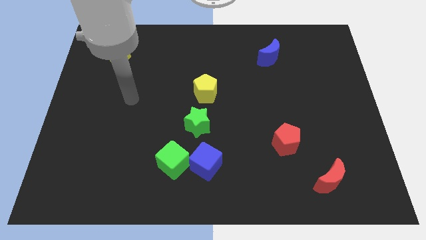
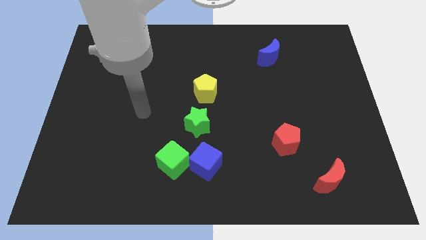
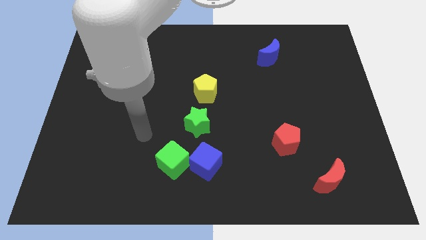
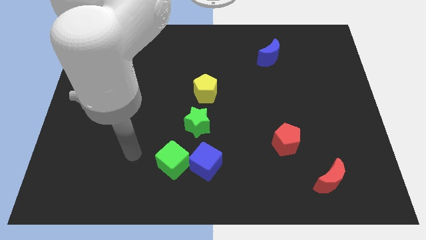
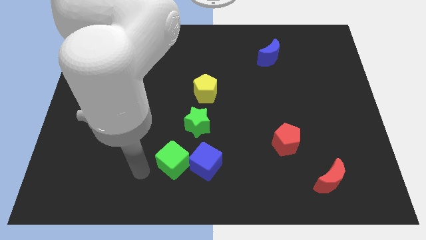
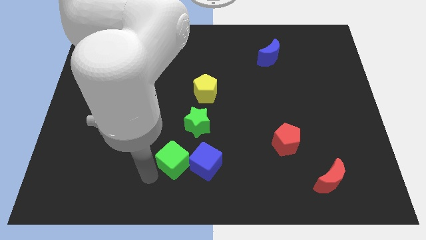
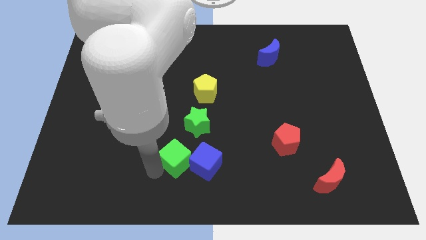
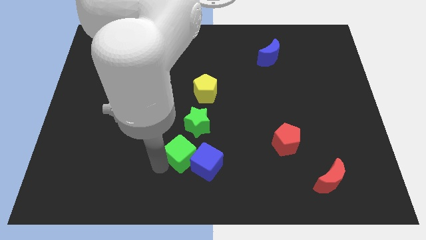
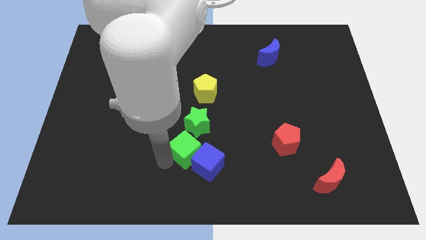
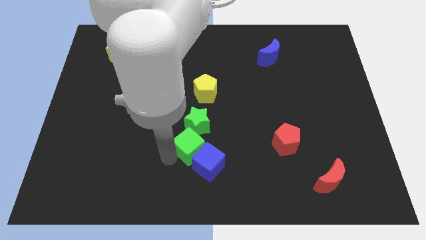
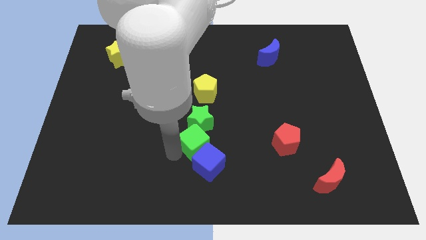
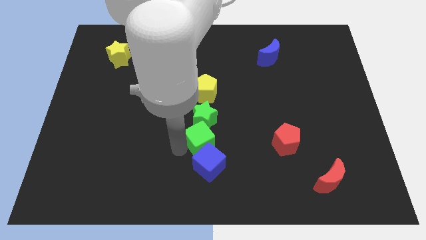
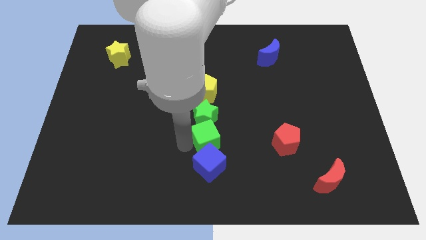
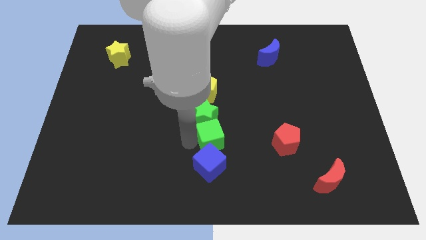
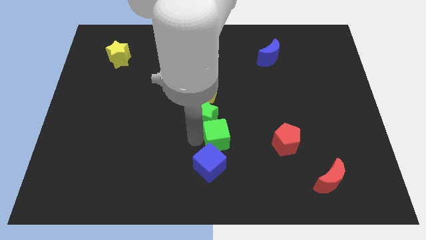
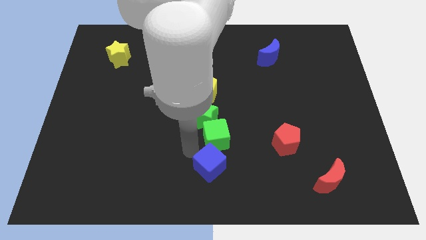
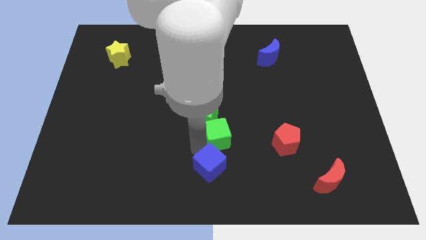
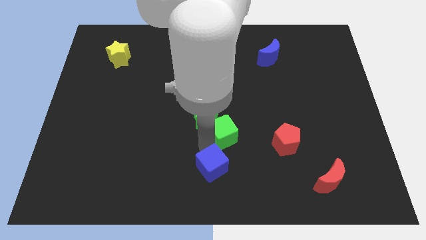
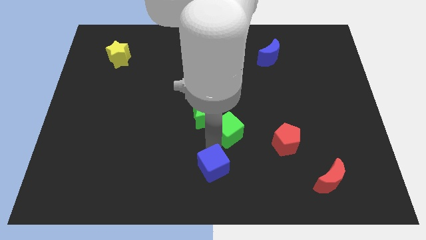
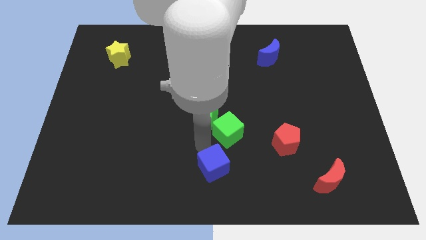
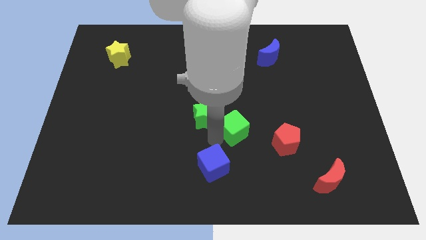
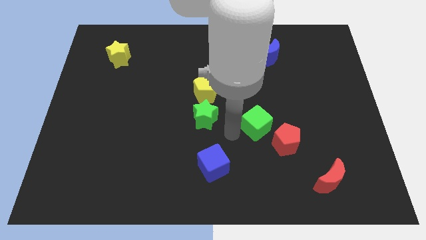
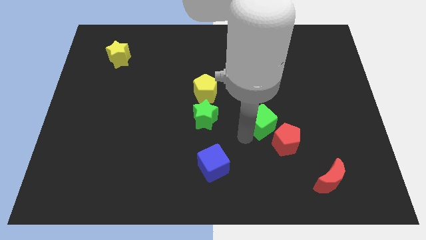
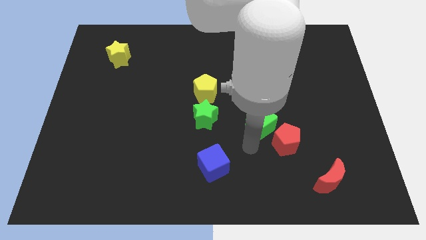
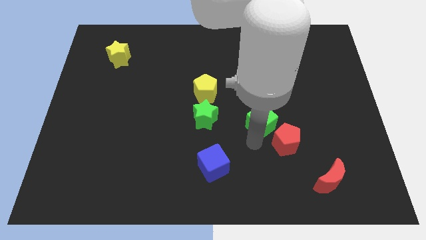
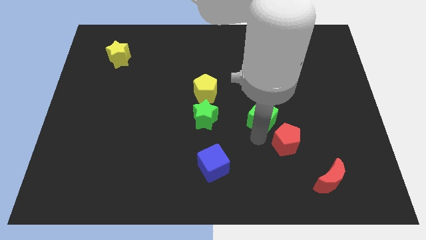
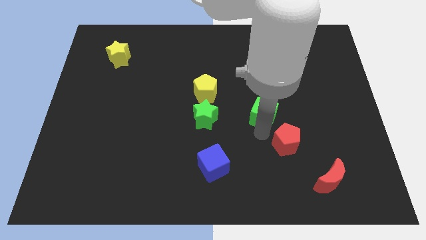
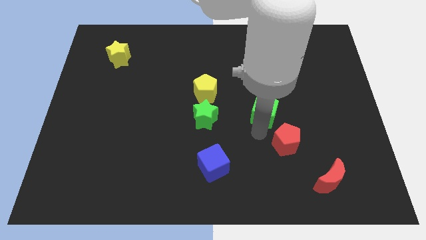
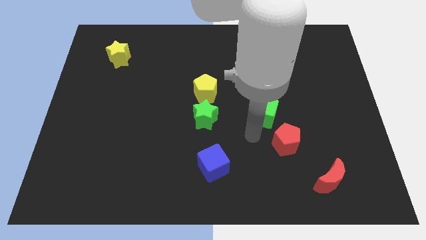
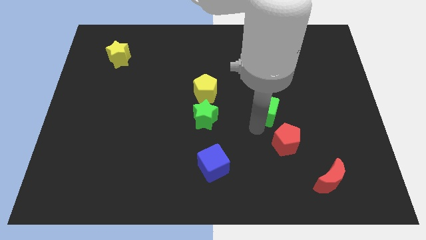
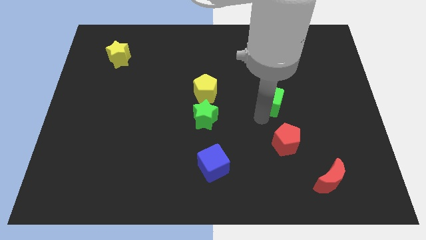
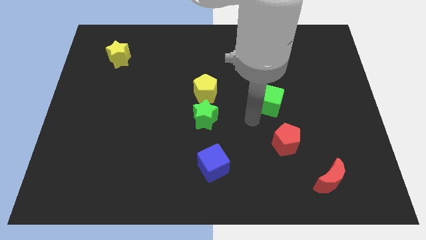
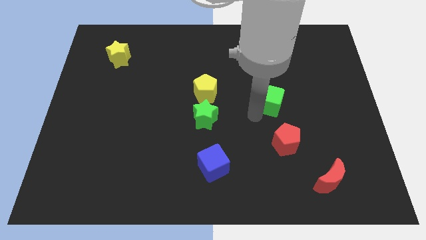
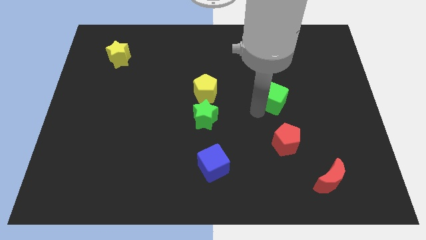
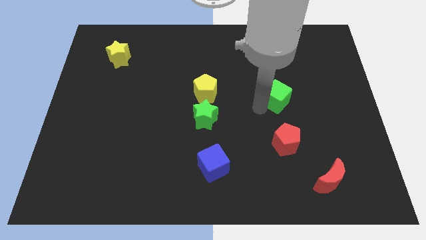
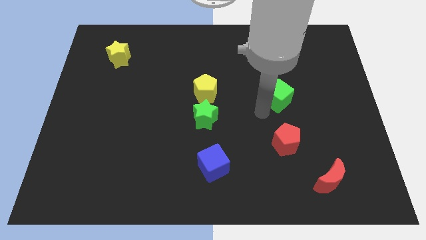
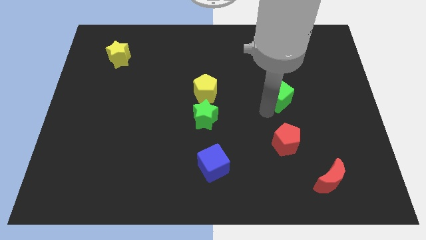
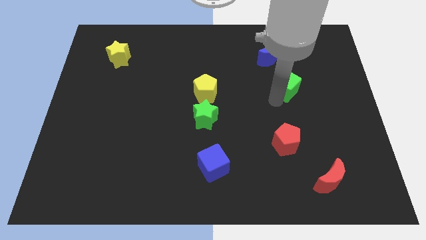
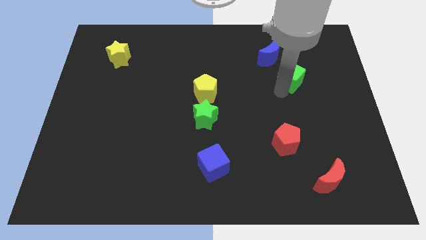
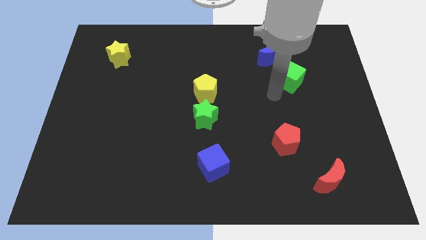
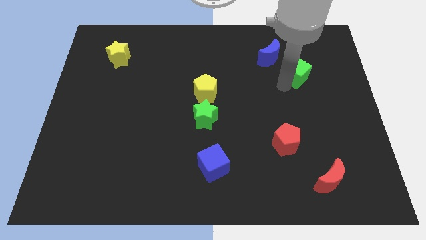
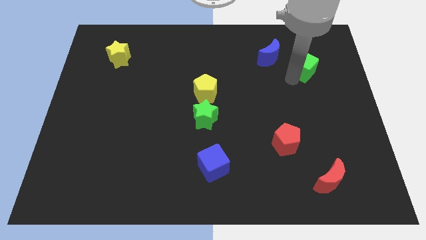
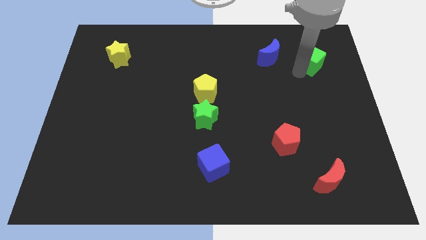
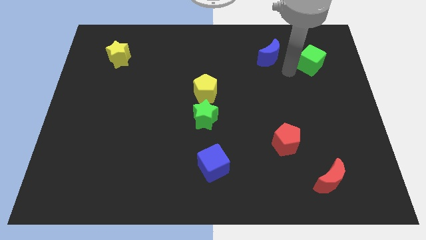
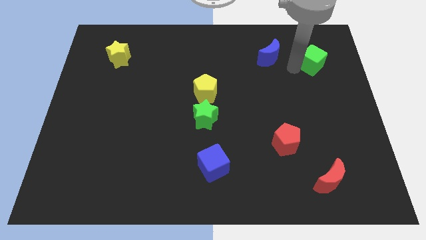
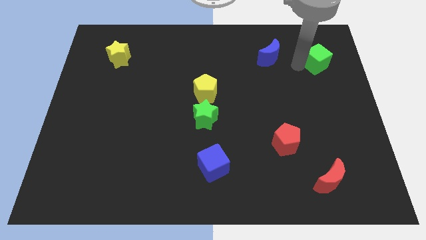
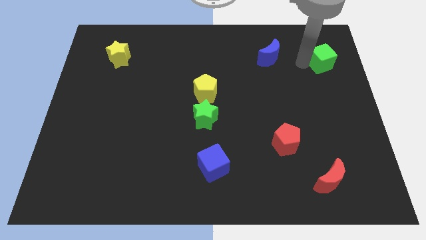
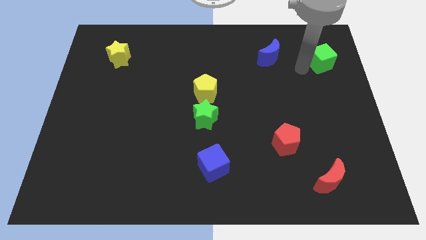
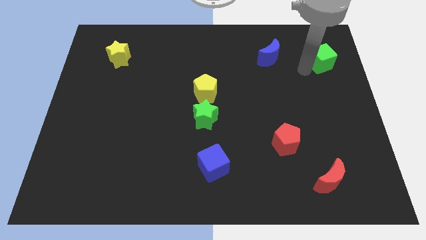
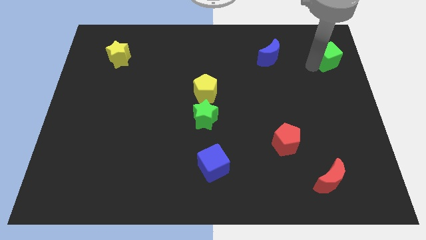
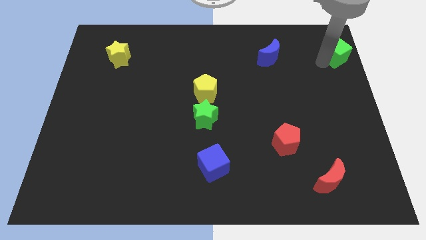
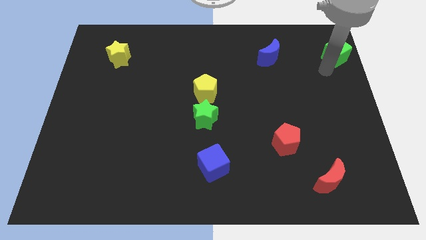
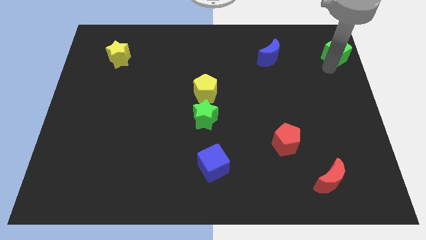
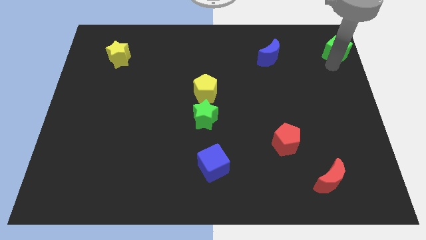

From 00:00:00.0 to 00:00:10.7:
slide the green cube to the top right corner

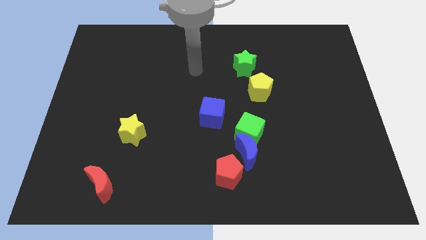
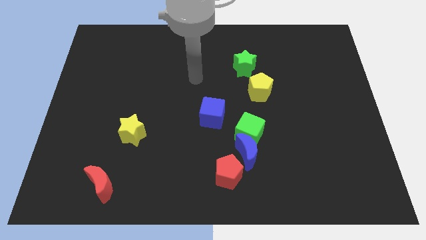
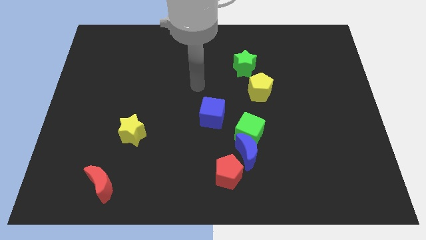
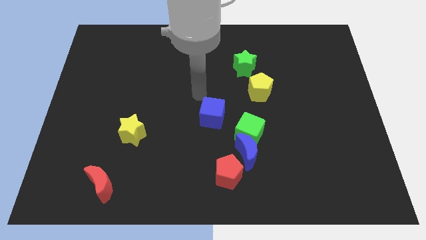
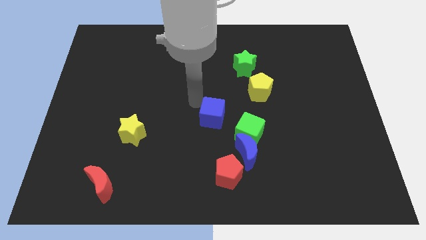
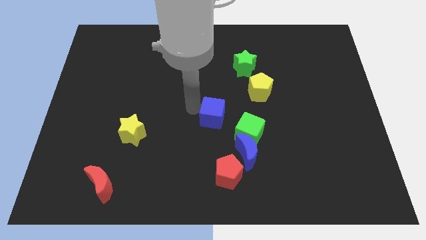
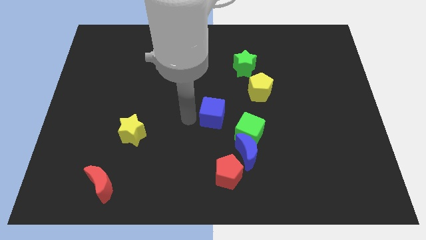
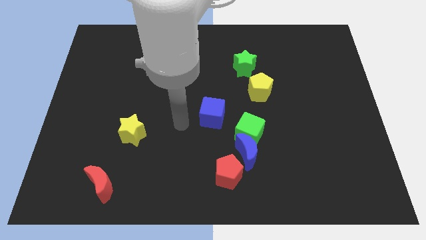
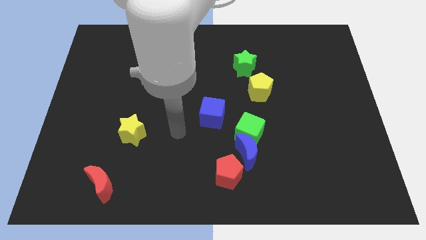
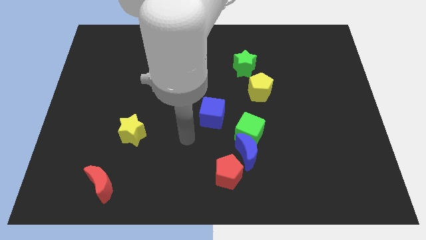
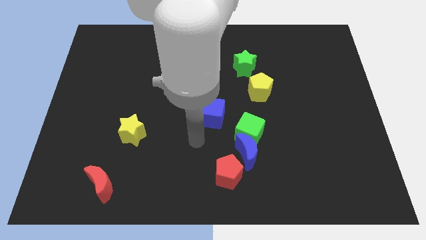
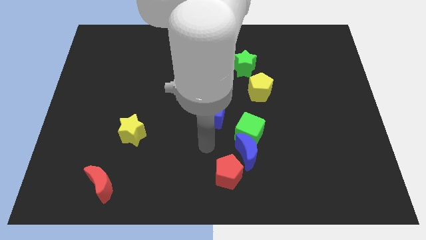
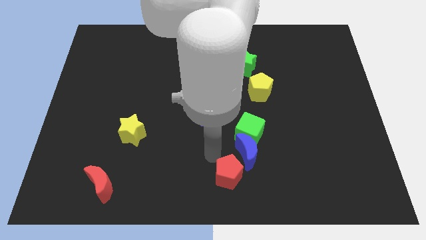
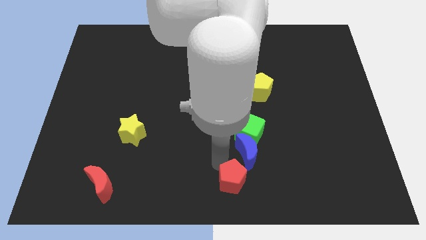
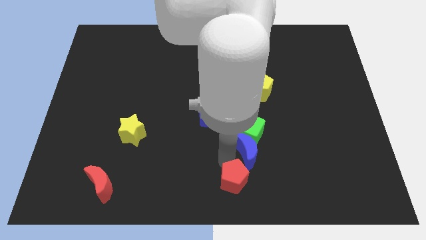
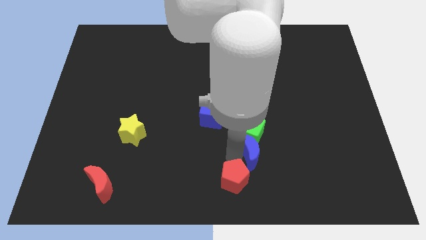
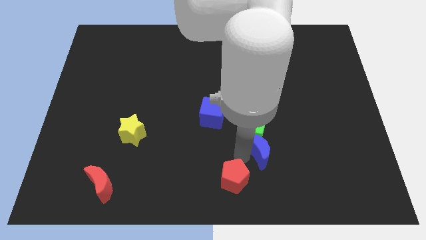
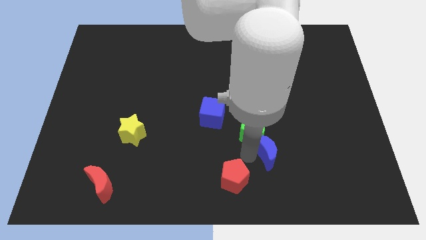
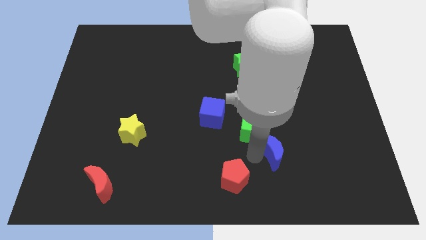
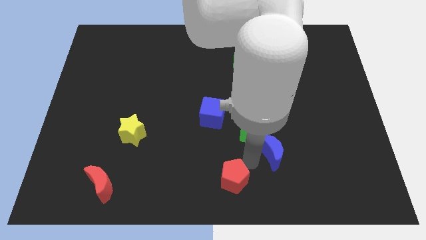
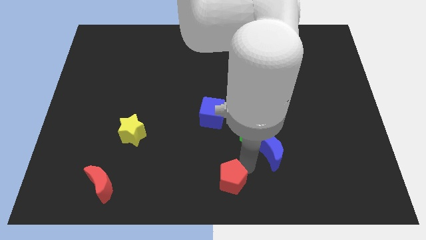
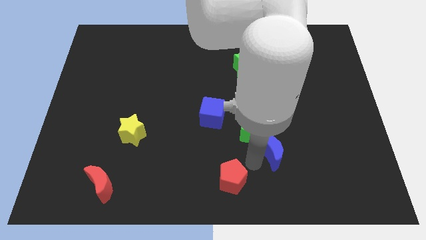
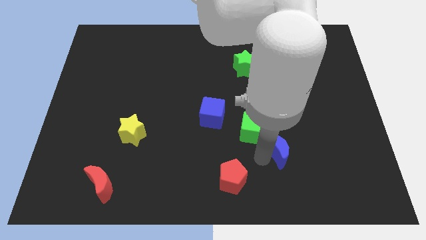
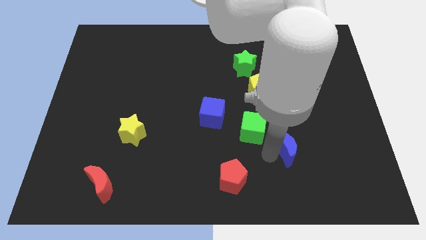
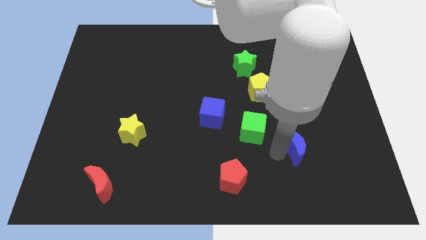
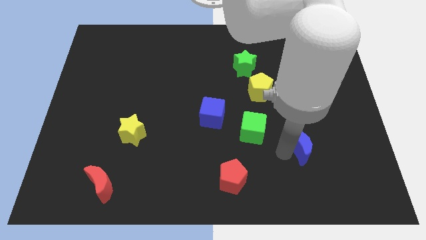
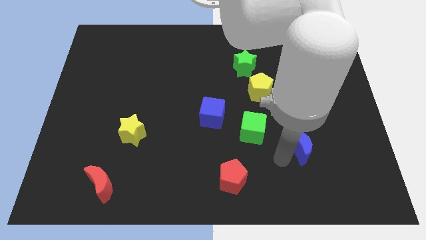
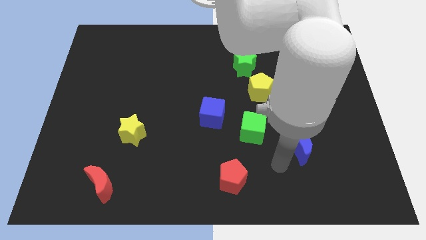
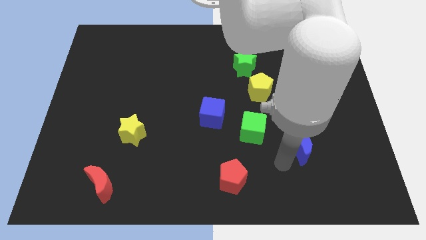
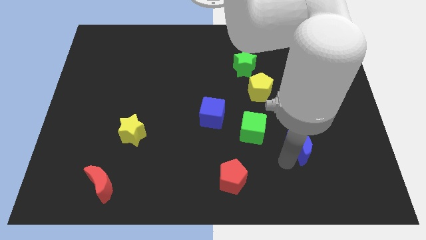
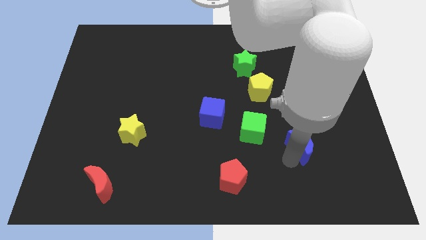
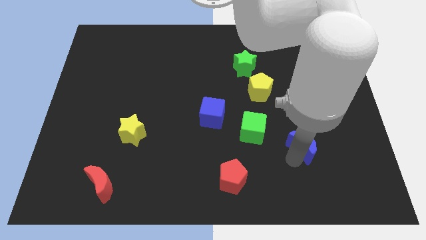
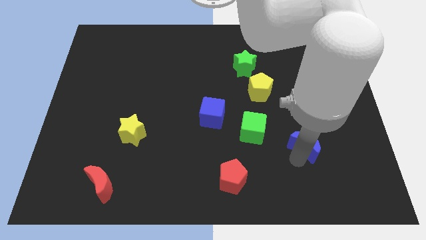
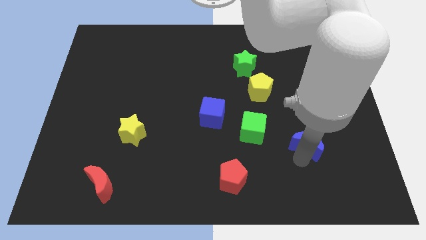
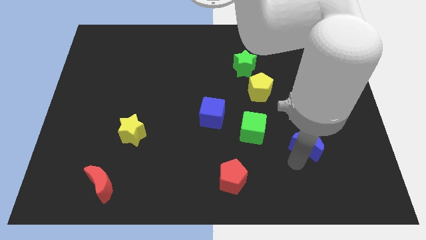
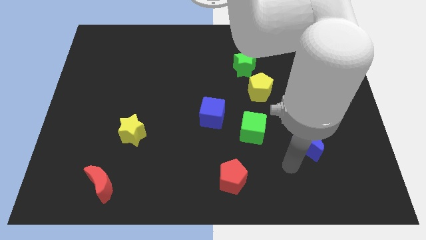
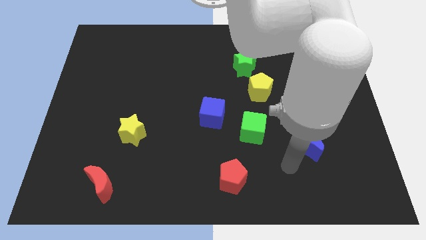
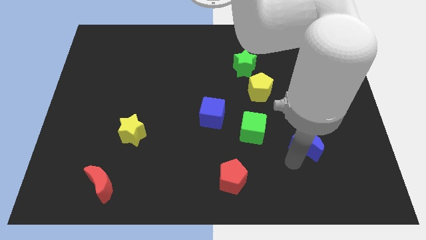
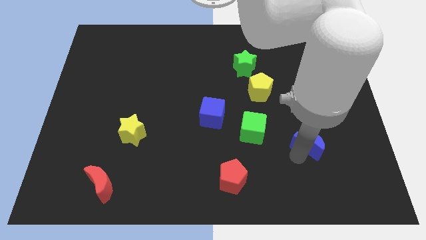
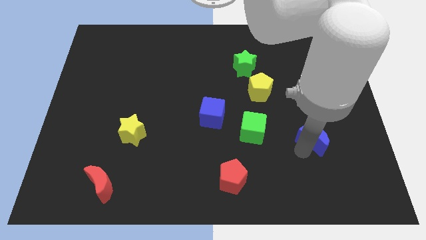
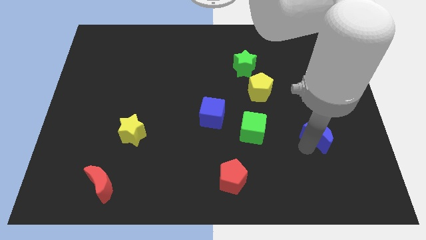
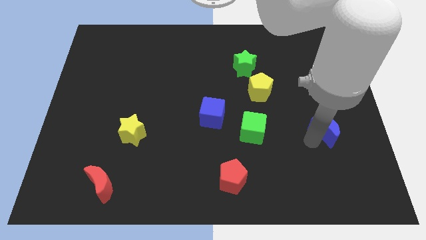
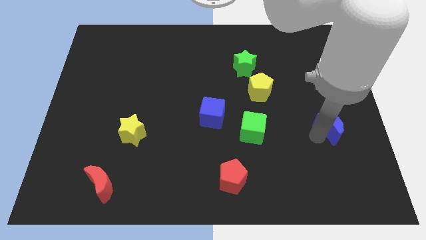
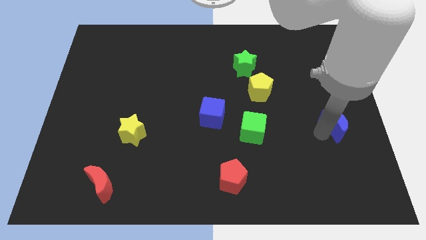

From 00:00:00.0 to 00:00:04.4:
put the blue moon to the right side
